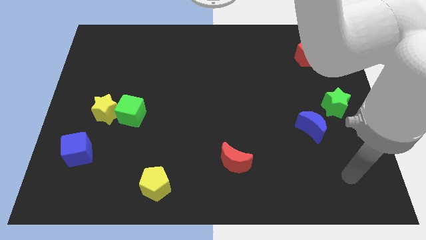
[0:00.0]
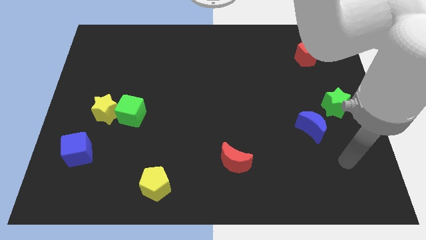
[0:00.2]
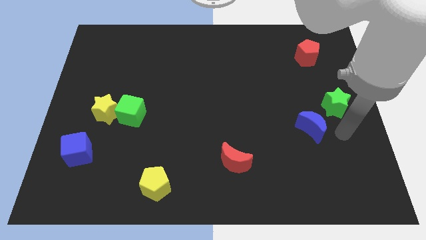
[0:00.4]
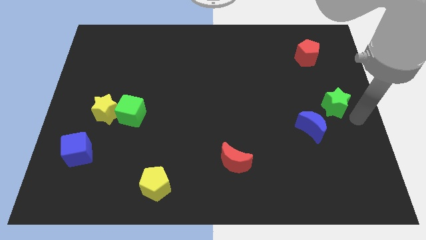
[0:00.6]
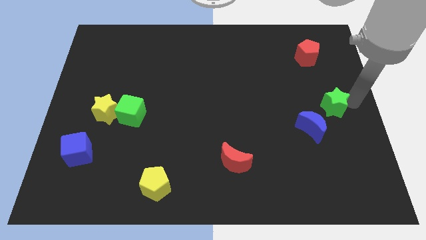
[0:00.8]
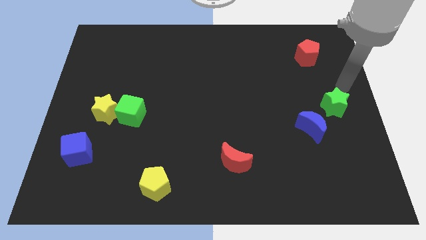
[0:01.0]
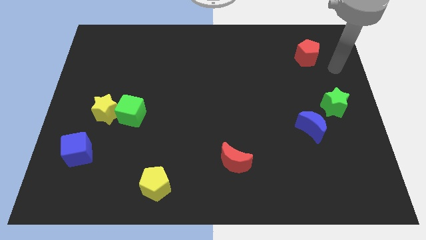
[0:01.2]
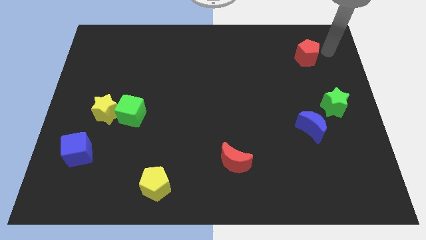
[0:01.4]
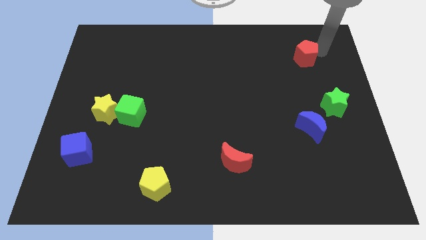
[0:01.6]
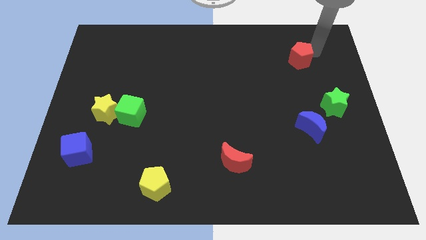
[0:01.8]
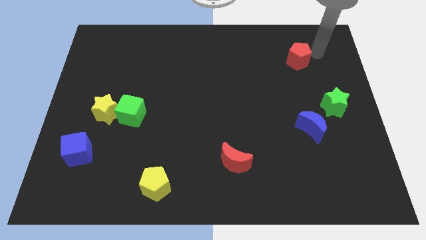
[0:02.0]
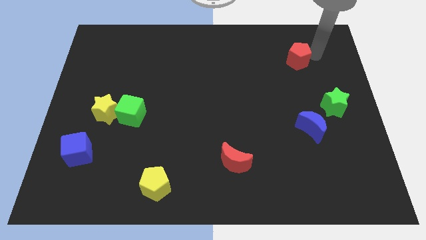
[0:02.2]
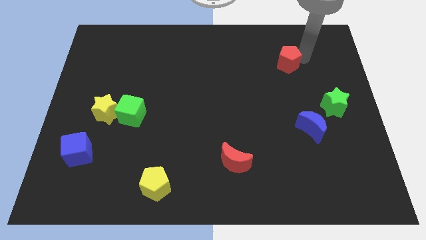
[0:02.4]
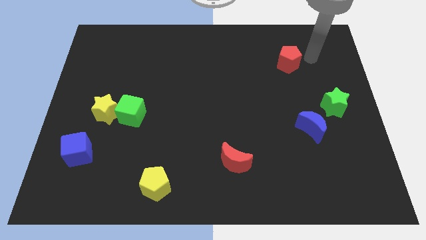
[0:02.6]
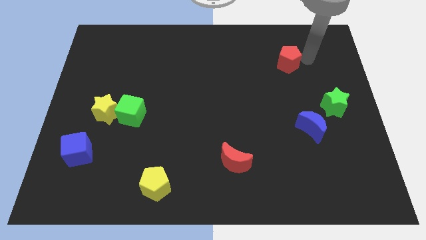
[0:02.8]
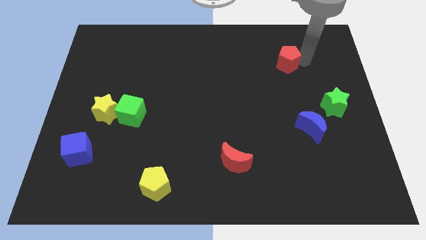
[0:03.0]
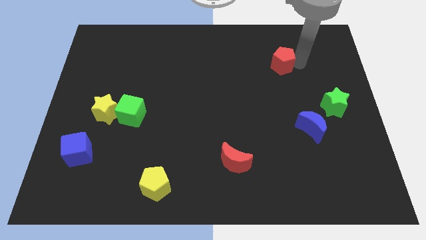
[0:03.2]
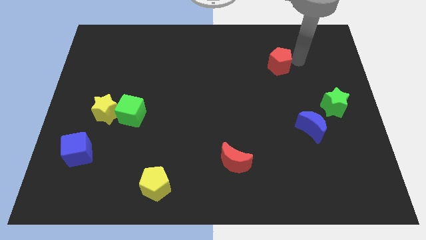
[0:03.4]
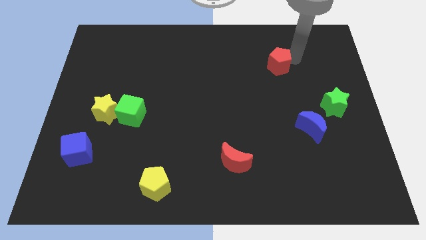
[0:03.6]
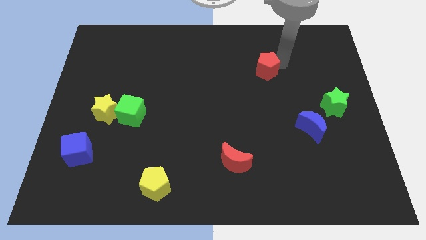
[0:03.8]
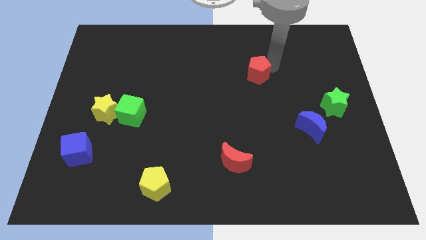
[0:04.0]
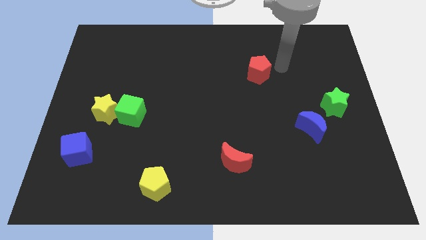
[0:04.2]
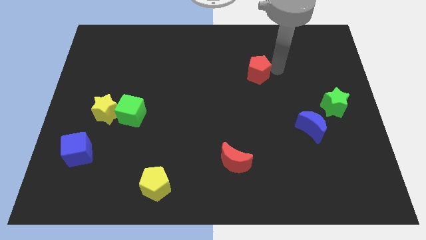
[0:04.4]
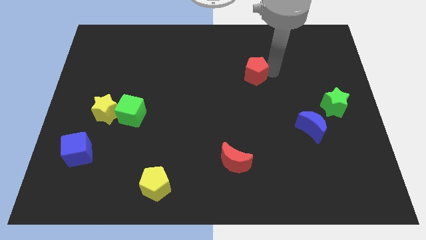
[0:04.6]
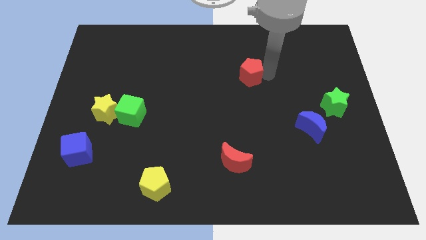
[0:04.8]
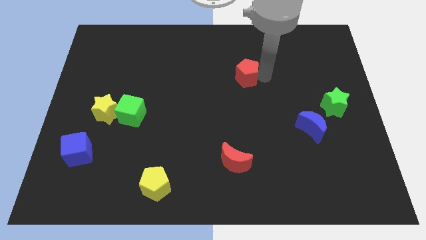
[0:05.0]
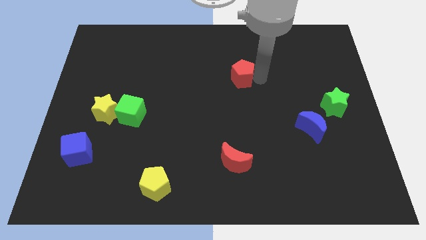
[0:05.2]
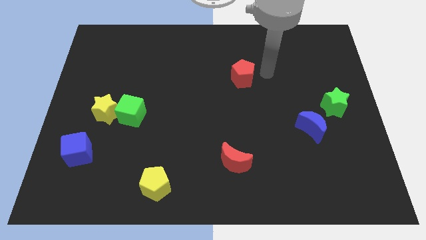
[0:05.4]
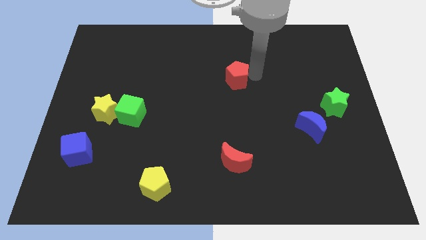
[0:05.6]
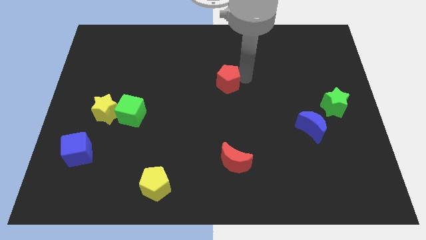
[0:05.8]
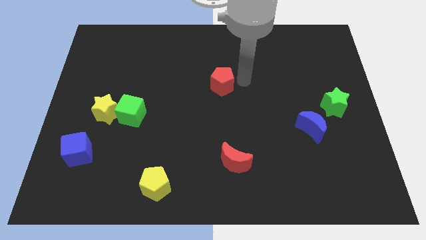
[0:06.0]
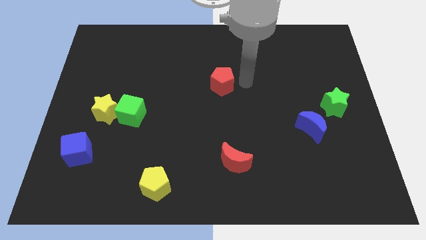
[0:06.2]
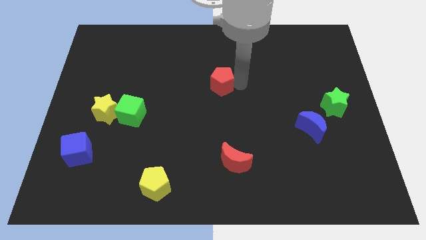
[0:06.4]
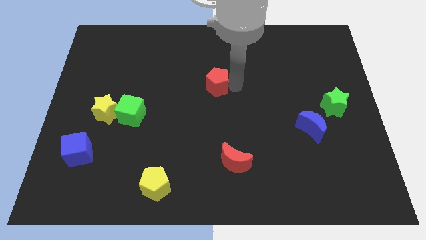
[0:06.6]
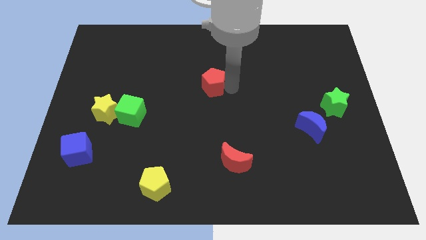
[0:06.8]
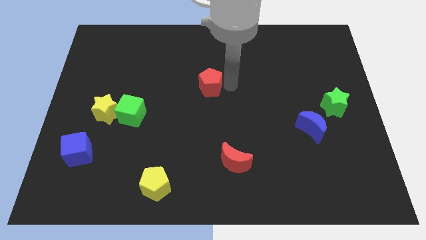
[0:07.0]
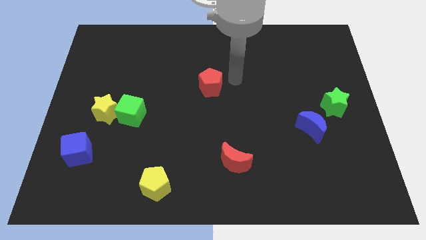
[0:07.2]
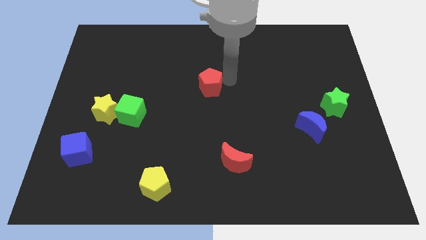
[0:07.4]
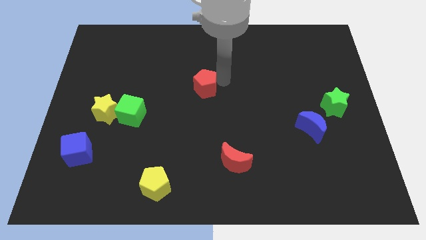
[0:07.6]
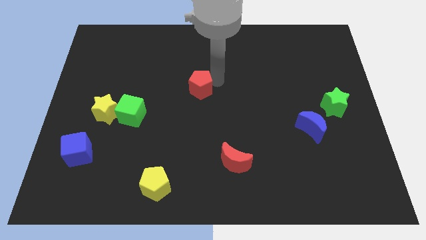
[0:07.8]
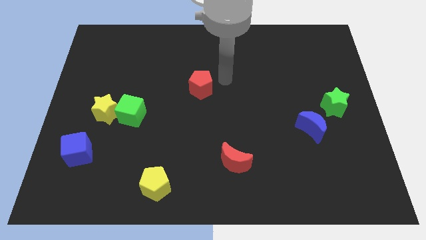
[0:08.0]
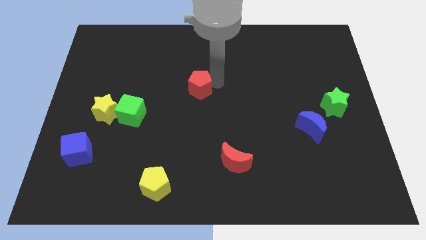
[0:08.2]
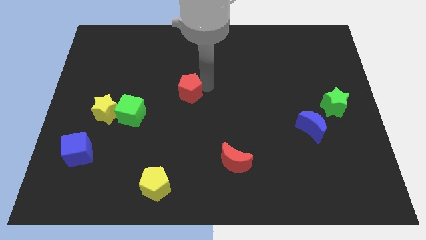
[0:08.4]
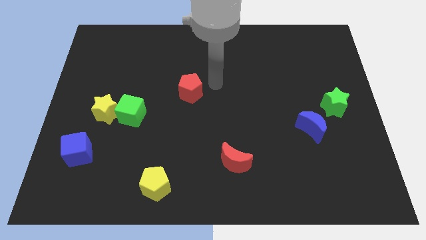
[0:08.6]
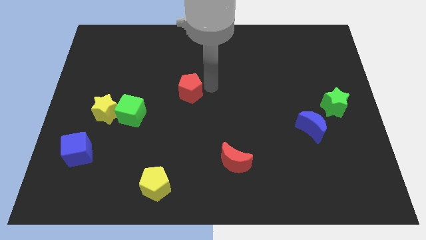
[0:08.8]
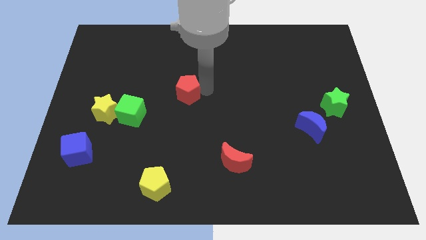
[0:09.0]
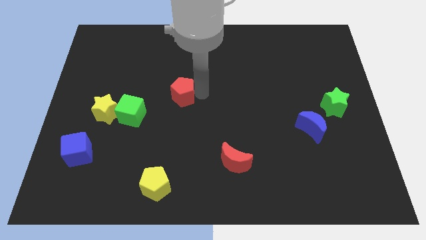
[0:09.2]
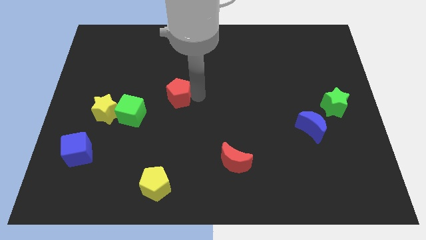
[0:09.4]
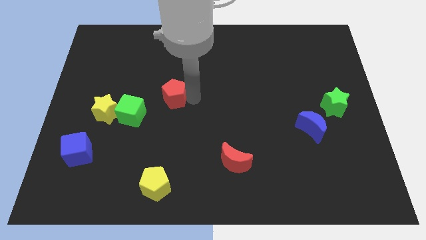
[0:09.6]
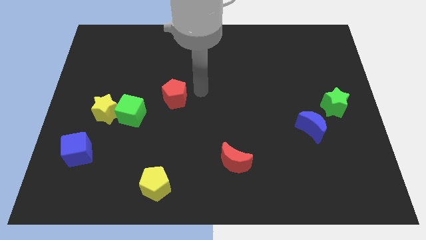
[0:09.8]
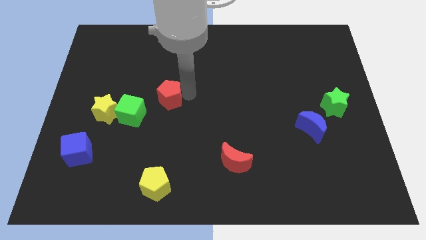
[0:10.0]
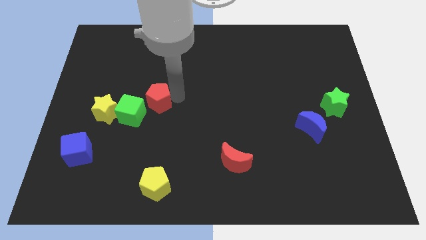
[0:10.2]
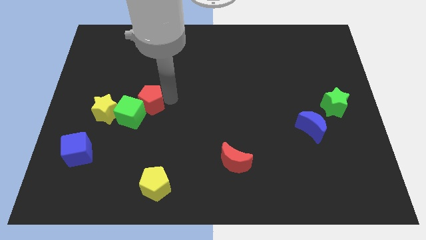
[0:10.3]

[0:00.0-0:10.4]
put the red pentagon towards the green cube

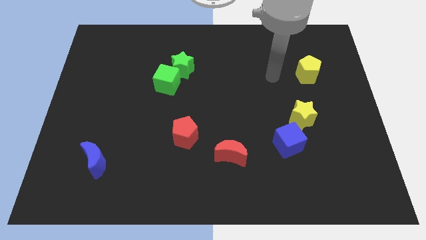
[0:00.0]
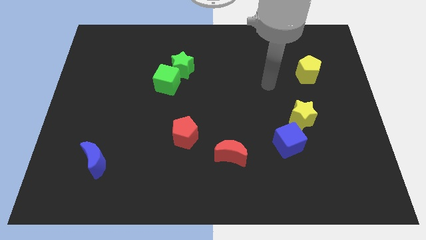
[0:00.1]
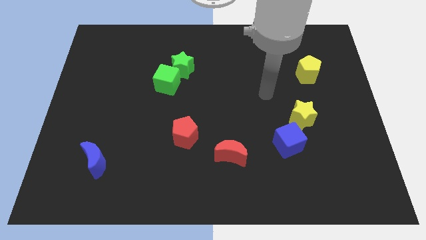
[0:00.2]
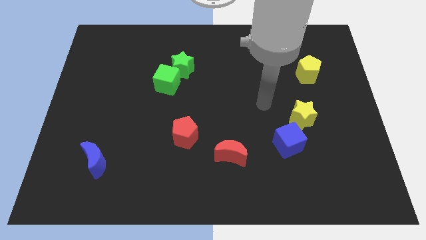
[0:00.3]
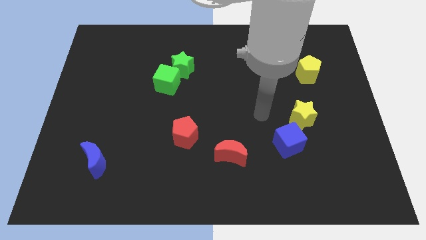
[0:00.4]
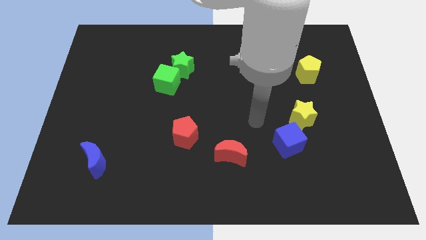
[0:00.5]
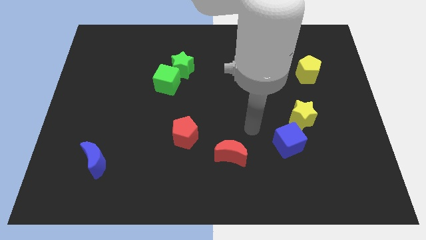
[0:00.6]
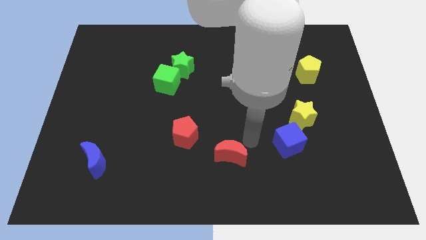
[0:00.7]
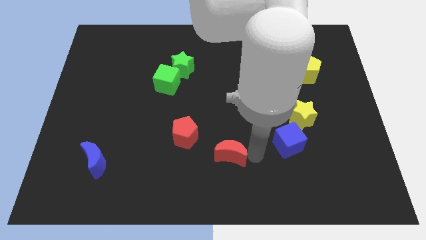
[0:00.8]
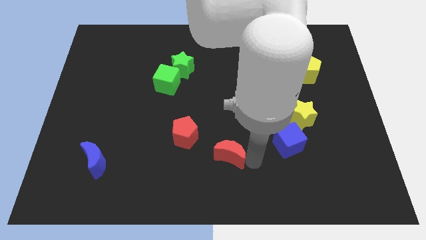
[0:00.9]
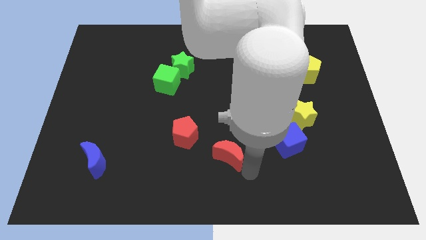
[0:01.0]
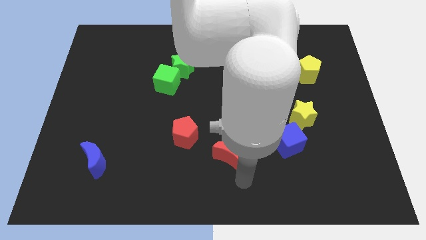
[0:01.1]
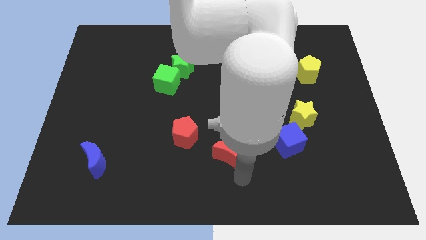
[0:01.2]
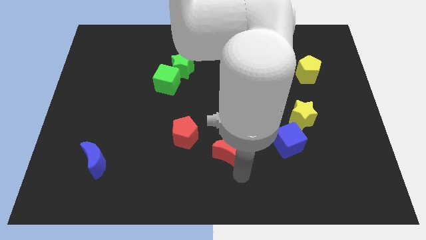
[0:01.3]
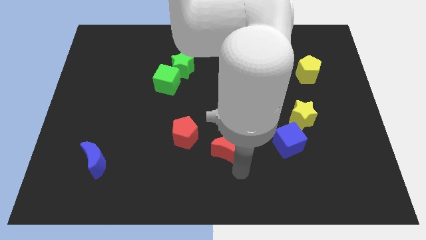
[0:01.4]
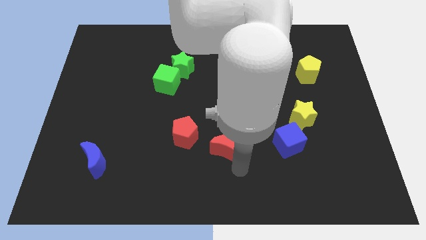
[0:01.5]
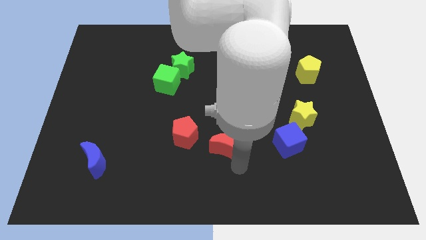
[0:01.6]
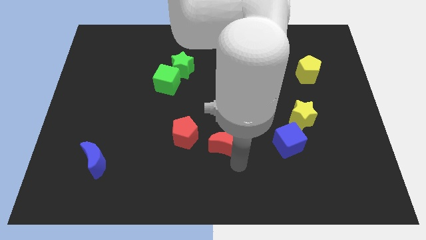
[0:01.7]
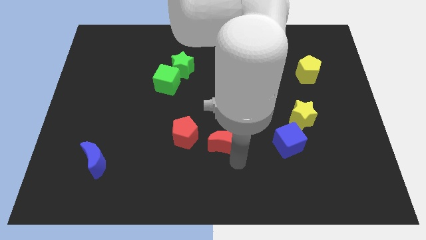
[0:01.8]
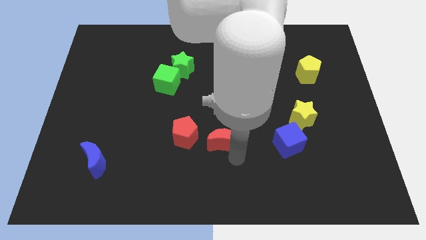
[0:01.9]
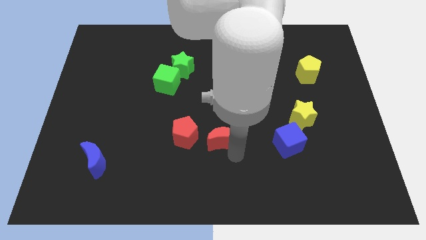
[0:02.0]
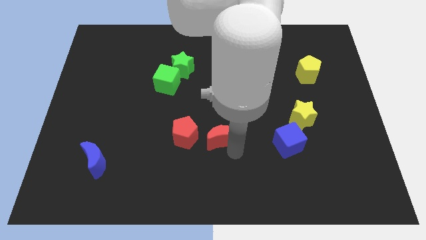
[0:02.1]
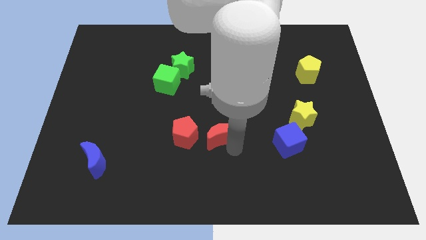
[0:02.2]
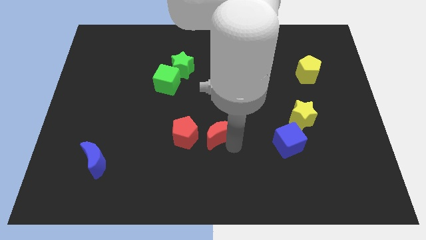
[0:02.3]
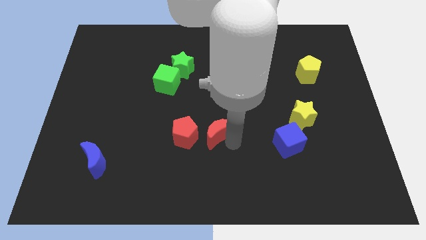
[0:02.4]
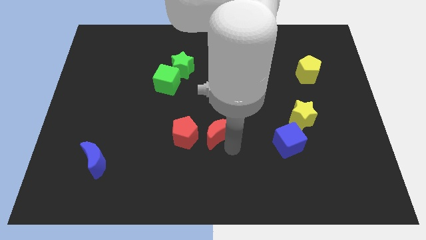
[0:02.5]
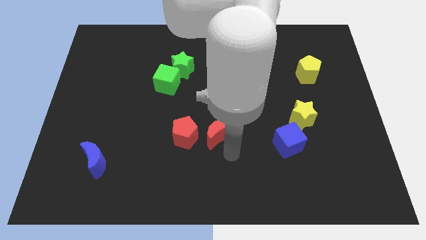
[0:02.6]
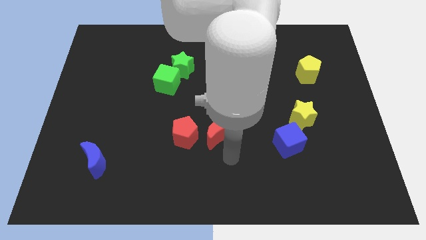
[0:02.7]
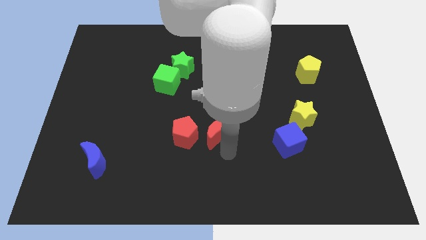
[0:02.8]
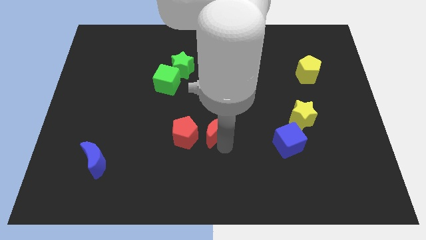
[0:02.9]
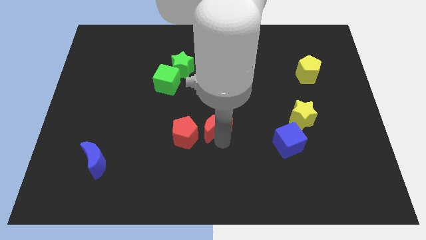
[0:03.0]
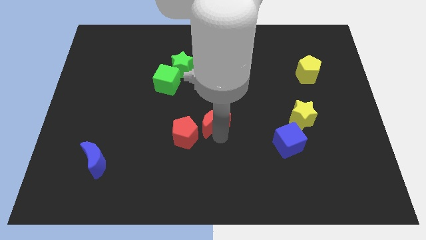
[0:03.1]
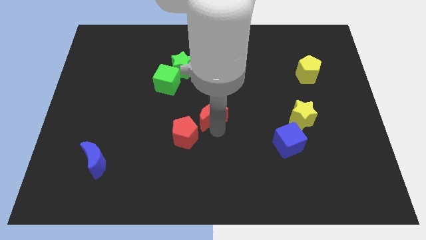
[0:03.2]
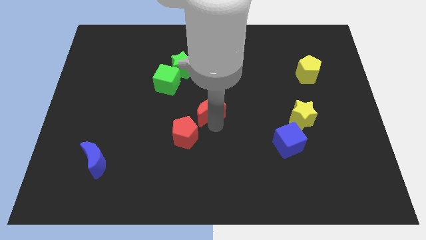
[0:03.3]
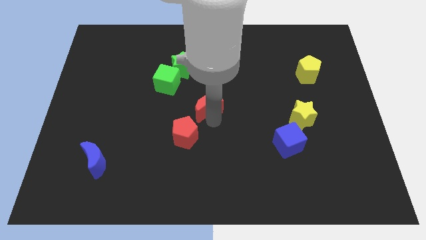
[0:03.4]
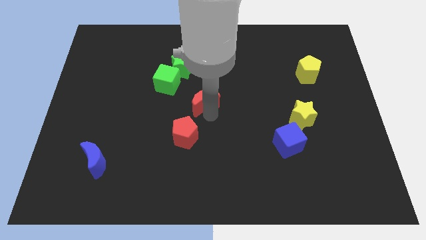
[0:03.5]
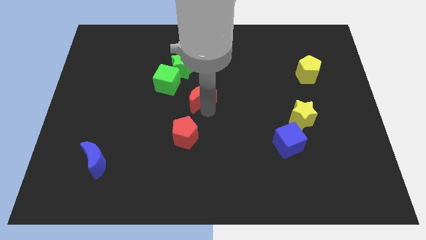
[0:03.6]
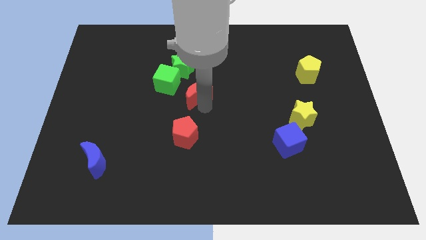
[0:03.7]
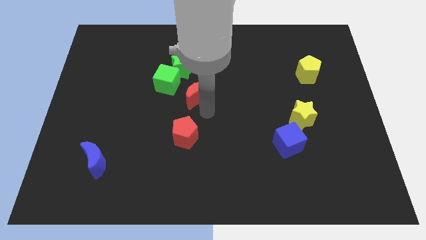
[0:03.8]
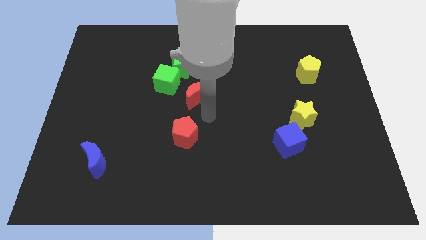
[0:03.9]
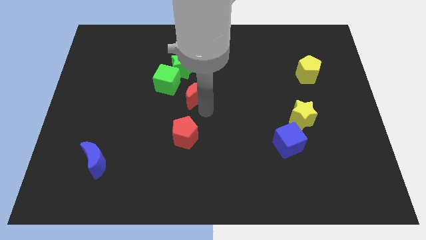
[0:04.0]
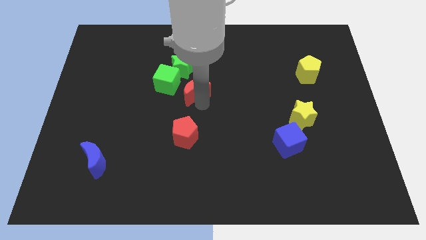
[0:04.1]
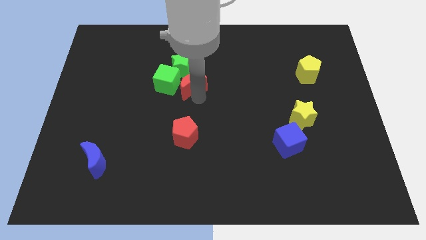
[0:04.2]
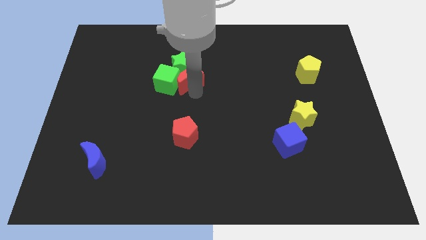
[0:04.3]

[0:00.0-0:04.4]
push the red moon towards the green star
